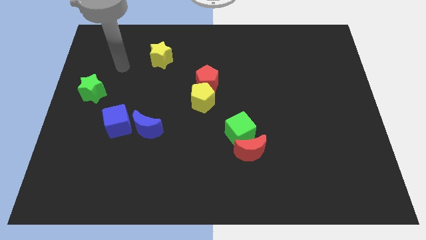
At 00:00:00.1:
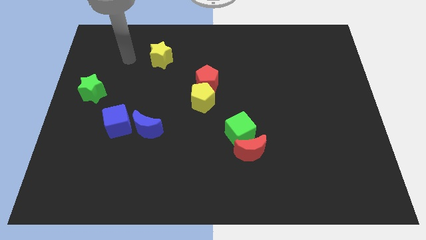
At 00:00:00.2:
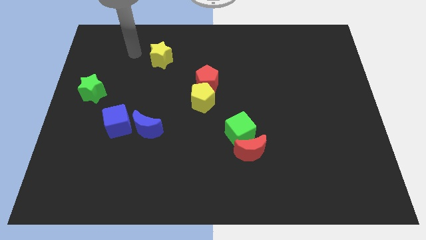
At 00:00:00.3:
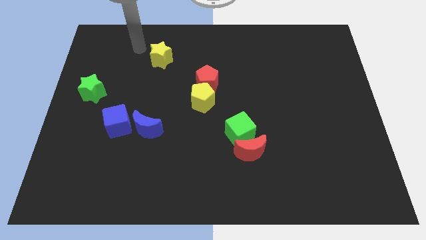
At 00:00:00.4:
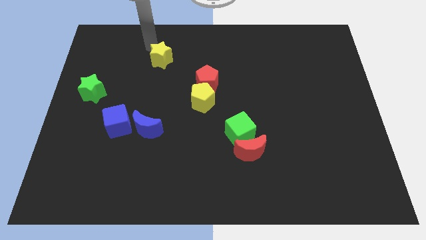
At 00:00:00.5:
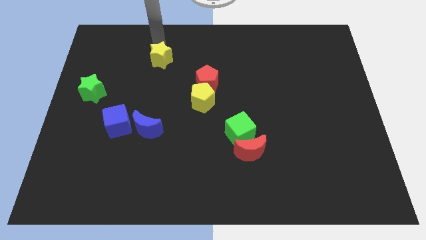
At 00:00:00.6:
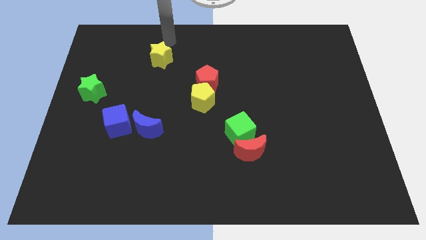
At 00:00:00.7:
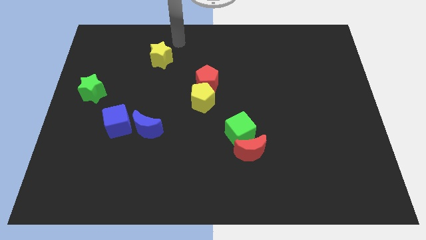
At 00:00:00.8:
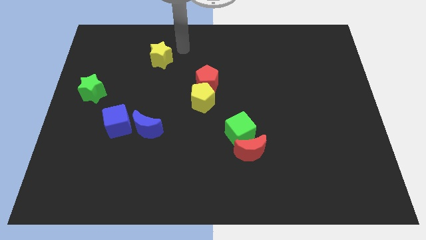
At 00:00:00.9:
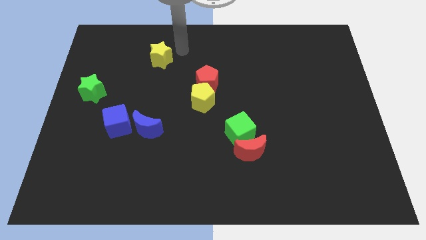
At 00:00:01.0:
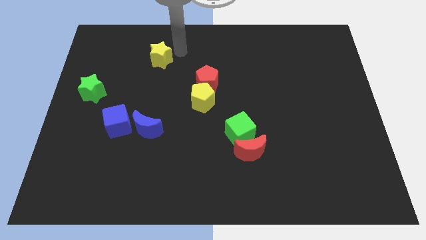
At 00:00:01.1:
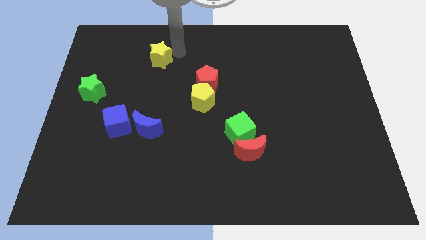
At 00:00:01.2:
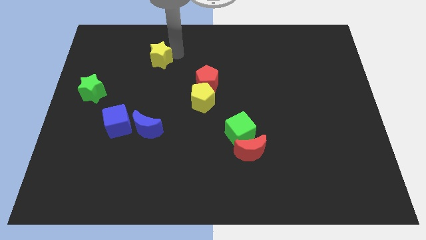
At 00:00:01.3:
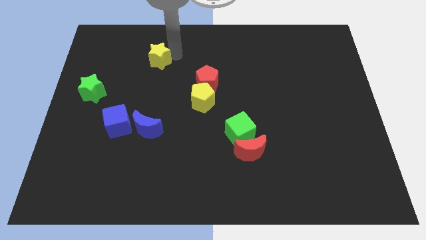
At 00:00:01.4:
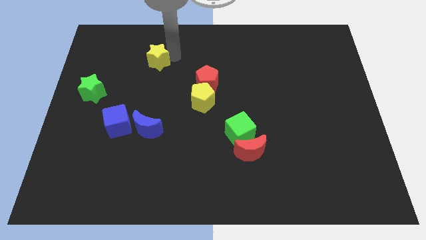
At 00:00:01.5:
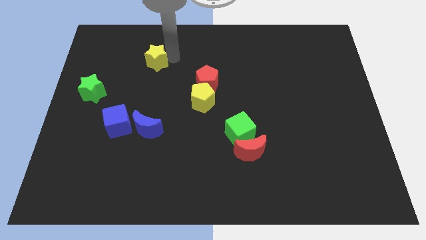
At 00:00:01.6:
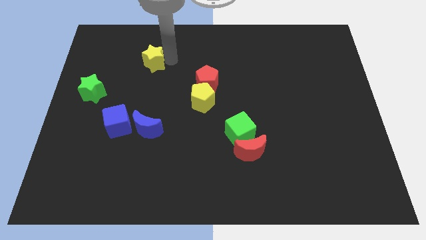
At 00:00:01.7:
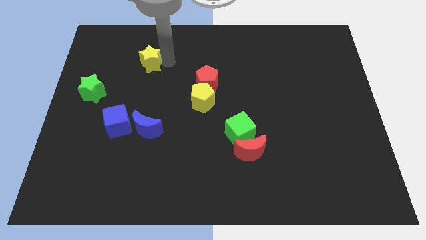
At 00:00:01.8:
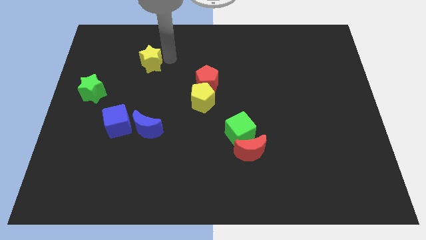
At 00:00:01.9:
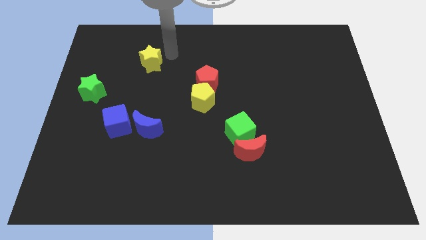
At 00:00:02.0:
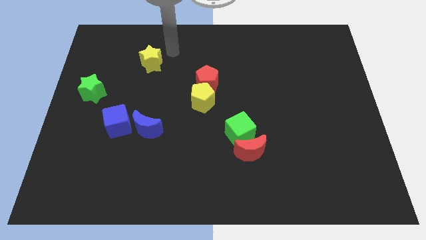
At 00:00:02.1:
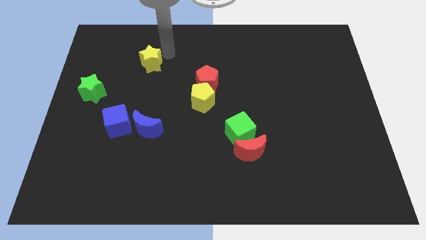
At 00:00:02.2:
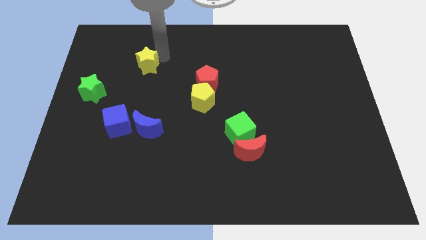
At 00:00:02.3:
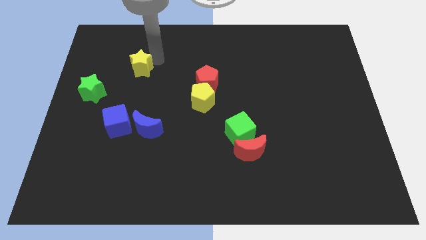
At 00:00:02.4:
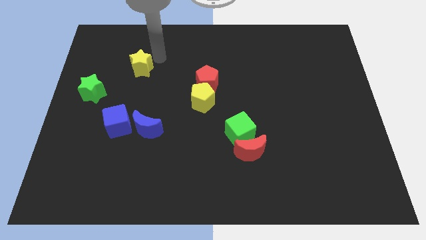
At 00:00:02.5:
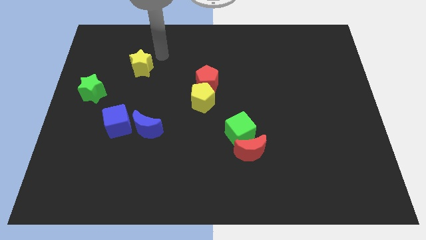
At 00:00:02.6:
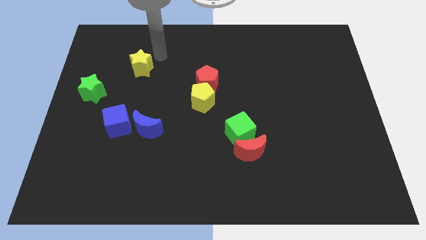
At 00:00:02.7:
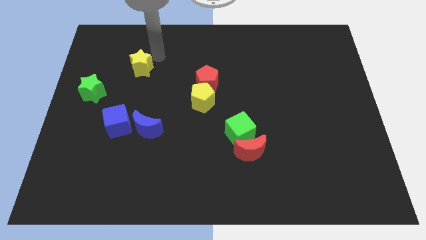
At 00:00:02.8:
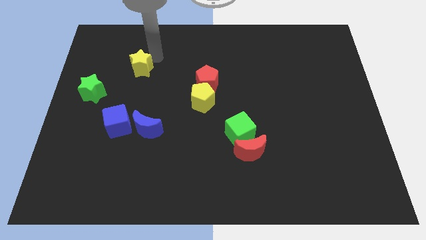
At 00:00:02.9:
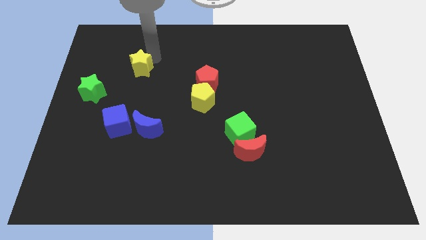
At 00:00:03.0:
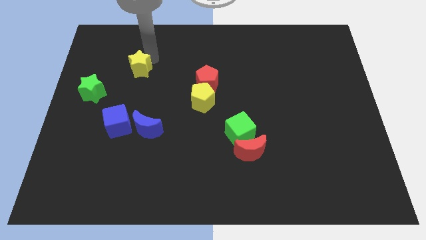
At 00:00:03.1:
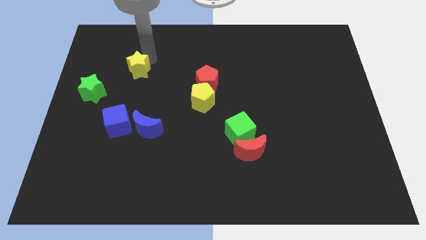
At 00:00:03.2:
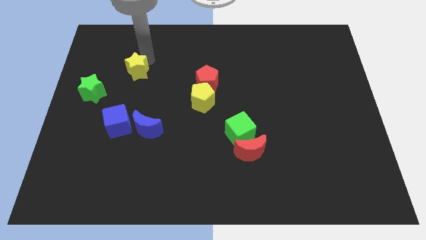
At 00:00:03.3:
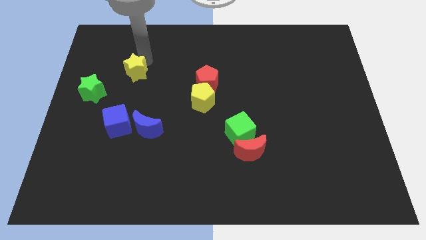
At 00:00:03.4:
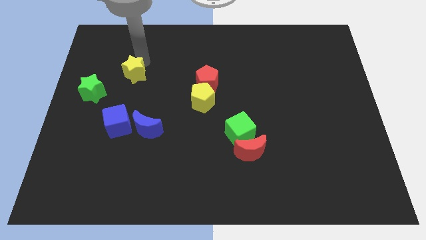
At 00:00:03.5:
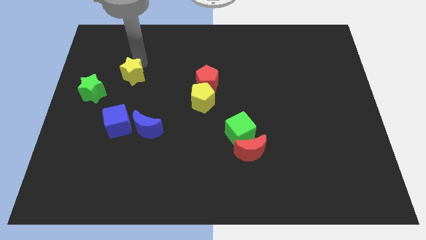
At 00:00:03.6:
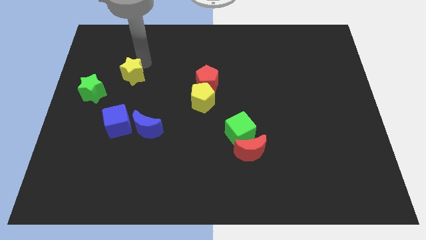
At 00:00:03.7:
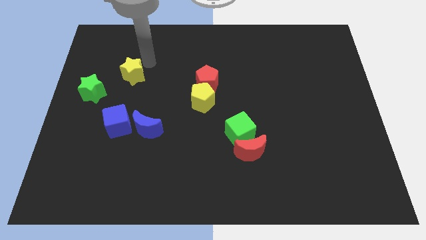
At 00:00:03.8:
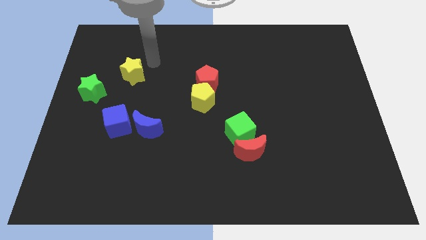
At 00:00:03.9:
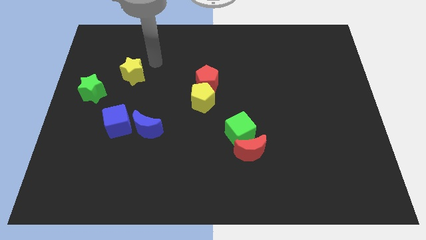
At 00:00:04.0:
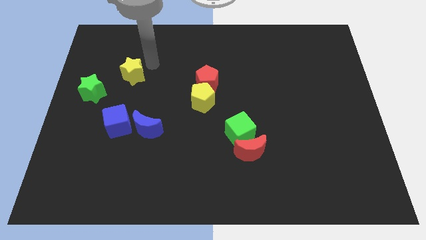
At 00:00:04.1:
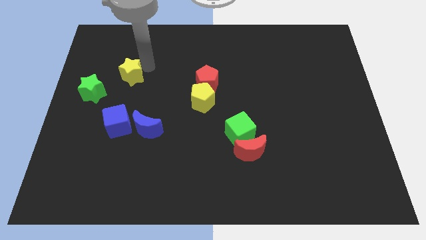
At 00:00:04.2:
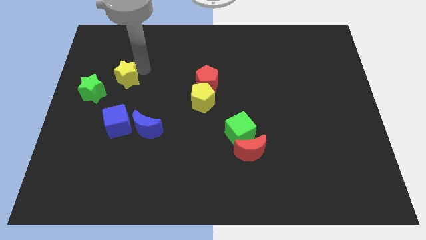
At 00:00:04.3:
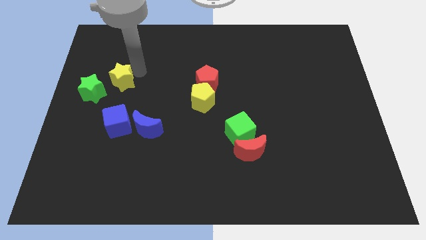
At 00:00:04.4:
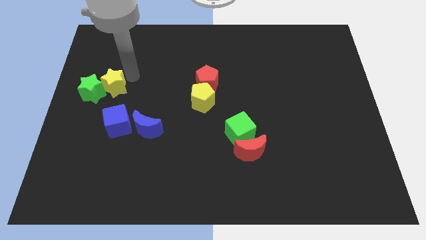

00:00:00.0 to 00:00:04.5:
slide the yellow star towards the green star

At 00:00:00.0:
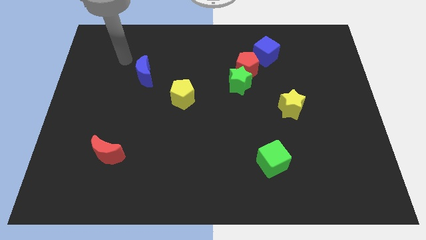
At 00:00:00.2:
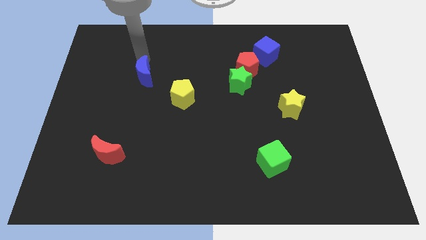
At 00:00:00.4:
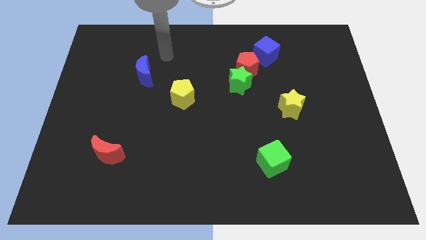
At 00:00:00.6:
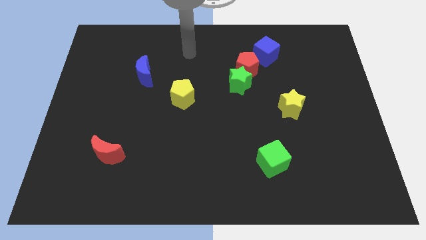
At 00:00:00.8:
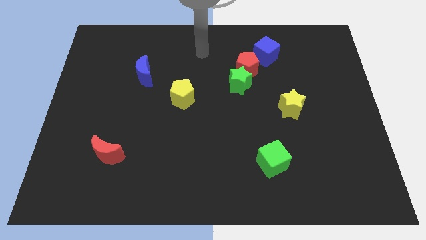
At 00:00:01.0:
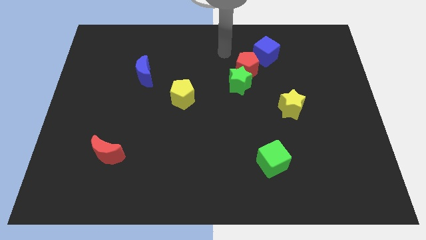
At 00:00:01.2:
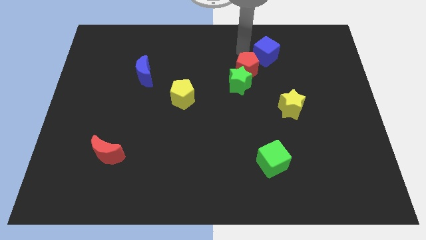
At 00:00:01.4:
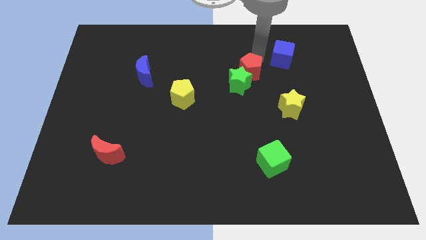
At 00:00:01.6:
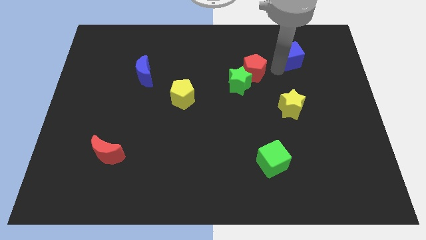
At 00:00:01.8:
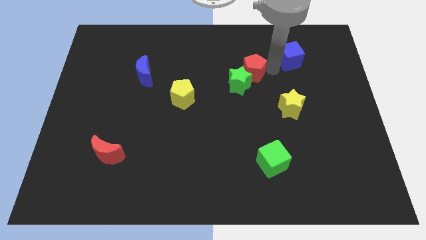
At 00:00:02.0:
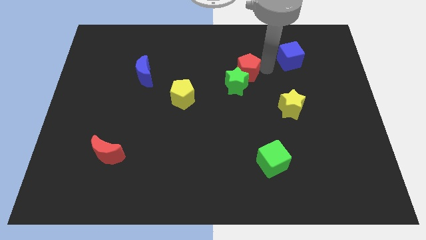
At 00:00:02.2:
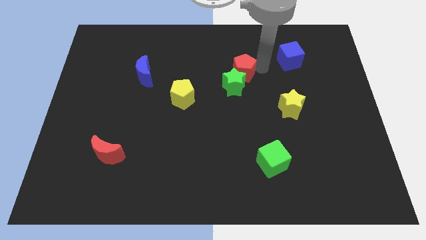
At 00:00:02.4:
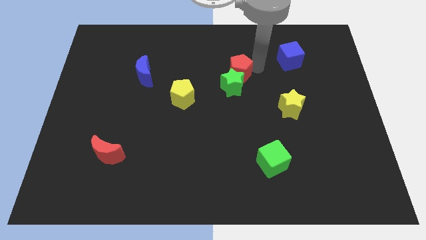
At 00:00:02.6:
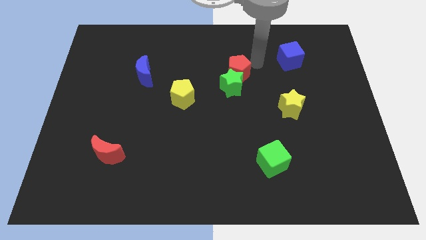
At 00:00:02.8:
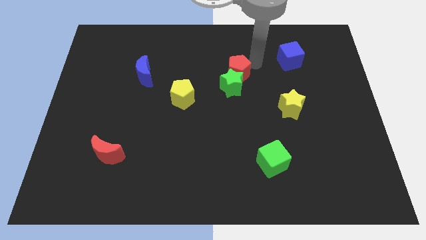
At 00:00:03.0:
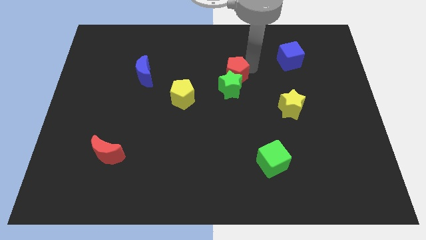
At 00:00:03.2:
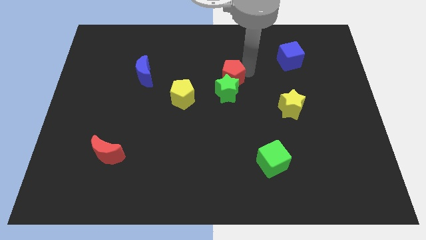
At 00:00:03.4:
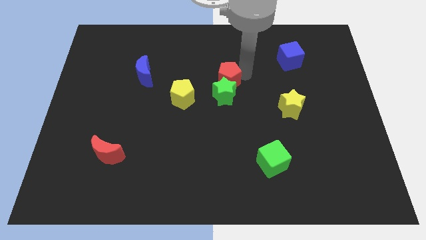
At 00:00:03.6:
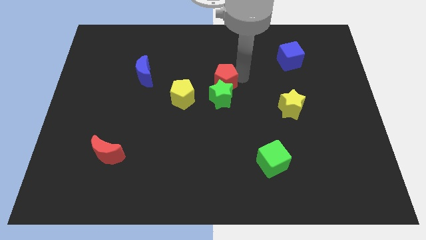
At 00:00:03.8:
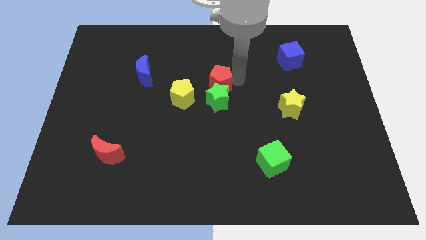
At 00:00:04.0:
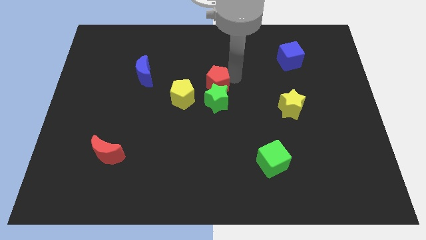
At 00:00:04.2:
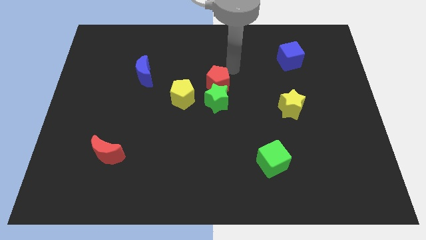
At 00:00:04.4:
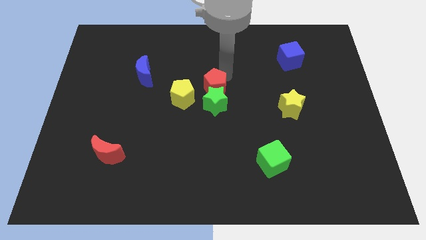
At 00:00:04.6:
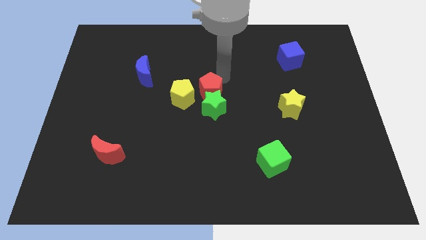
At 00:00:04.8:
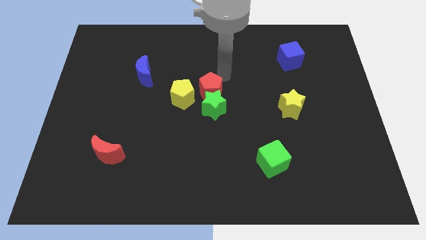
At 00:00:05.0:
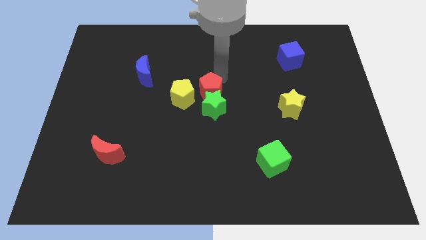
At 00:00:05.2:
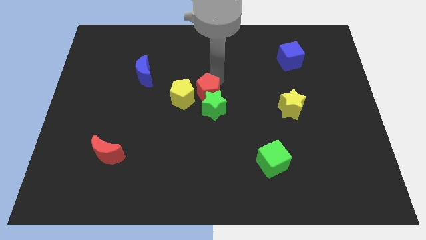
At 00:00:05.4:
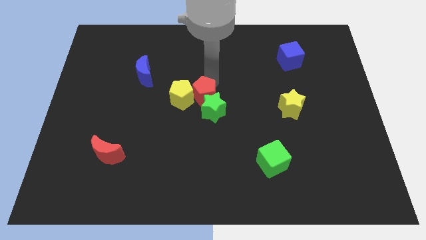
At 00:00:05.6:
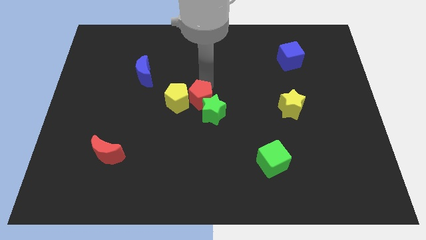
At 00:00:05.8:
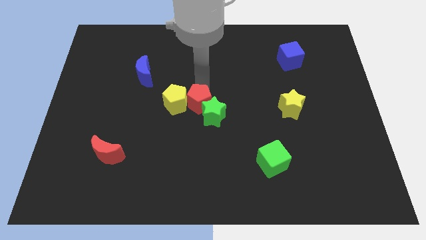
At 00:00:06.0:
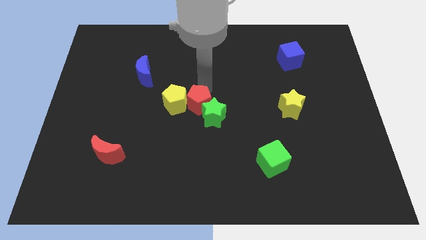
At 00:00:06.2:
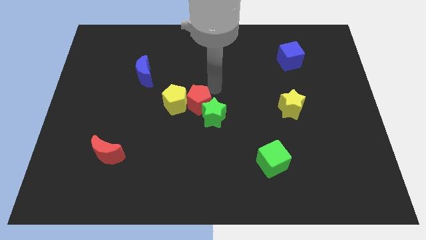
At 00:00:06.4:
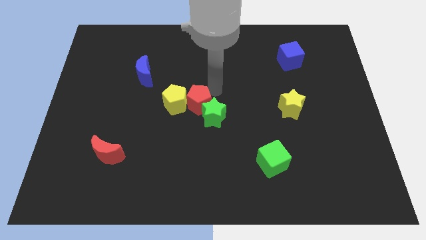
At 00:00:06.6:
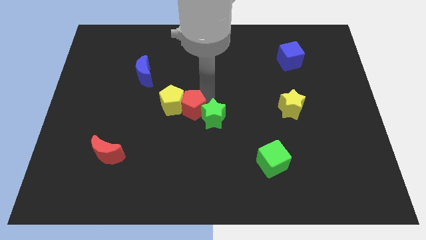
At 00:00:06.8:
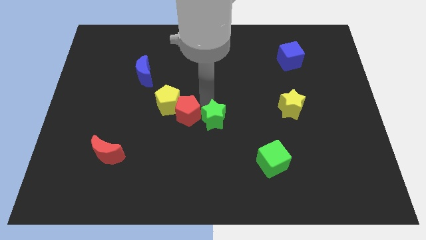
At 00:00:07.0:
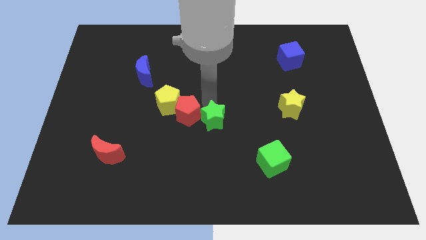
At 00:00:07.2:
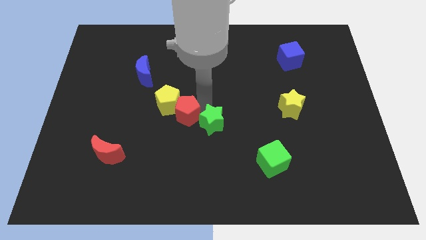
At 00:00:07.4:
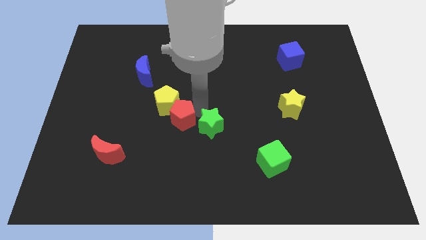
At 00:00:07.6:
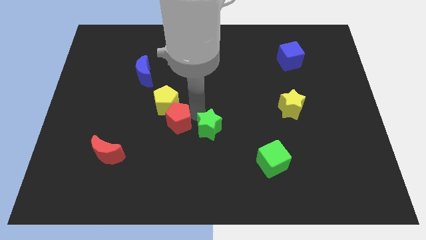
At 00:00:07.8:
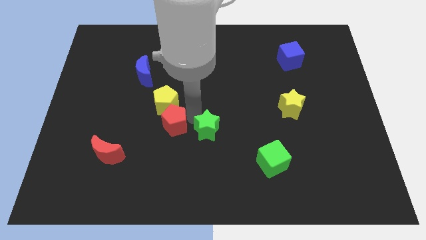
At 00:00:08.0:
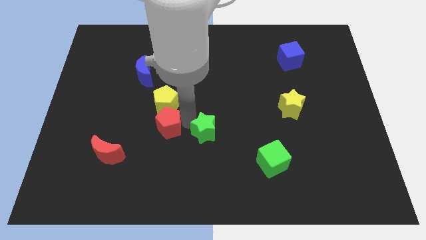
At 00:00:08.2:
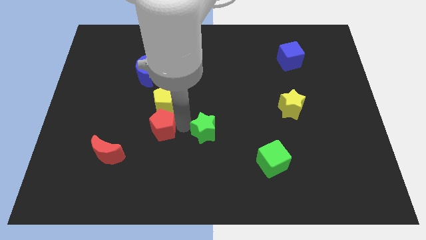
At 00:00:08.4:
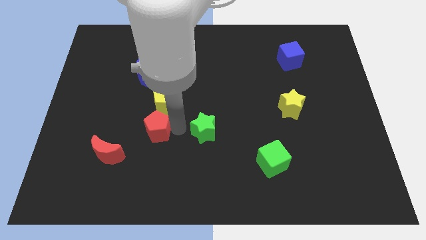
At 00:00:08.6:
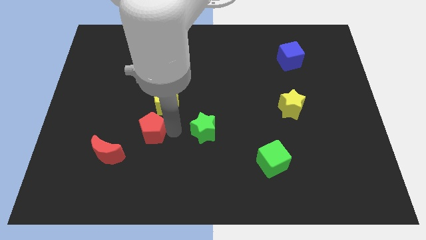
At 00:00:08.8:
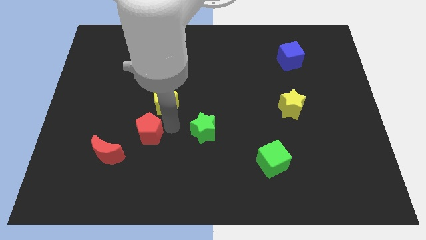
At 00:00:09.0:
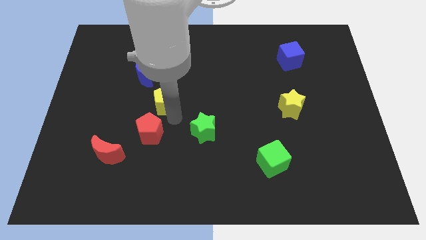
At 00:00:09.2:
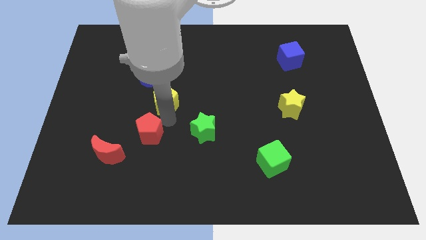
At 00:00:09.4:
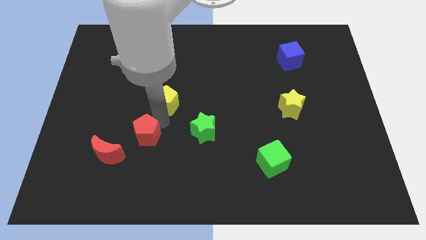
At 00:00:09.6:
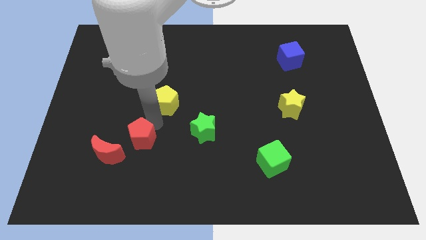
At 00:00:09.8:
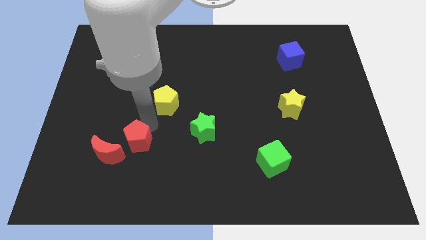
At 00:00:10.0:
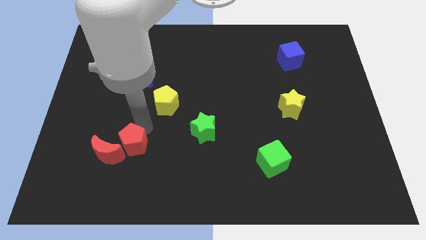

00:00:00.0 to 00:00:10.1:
put the red pentagon towards the red moon
